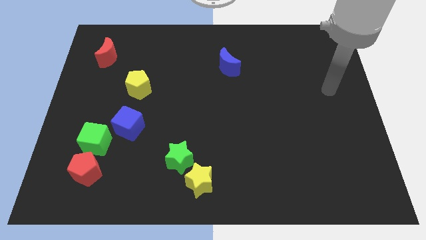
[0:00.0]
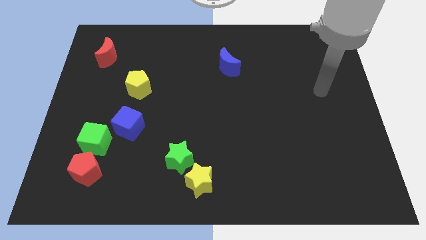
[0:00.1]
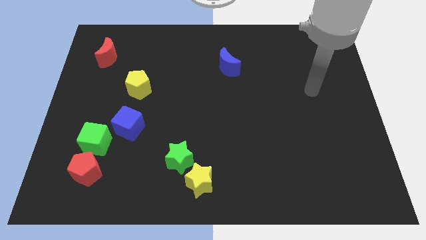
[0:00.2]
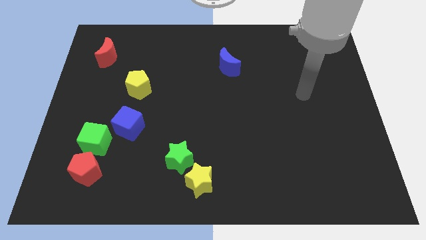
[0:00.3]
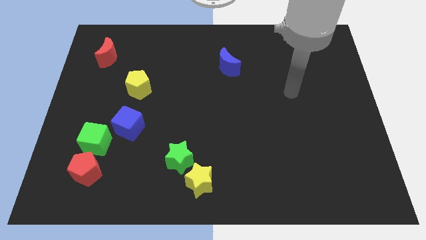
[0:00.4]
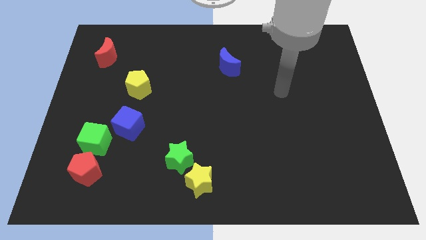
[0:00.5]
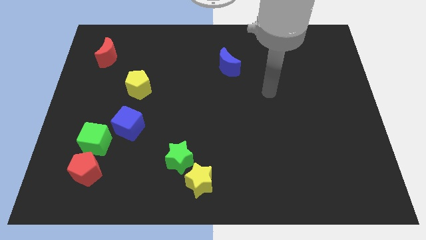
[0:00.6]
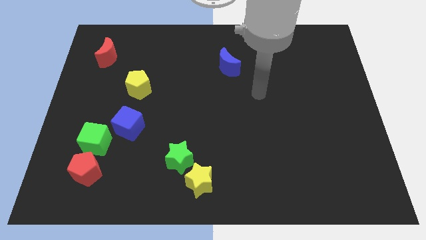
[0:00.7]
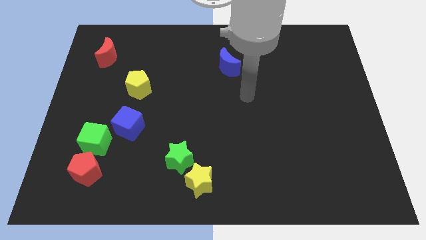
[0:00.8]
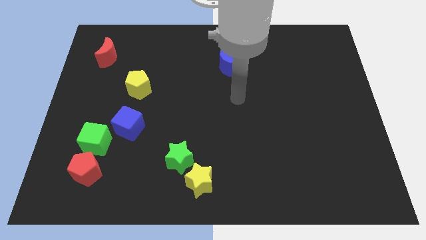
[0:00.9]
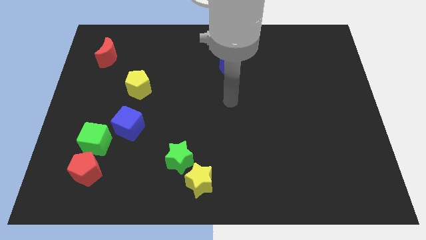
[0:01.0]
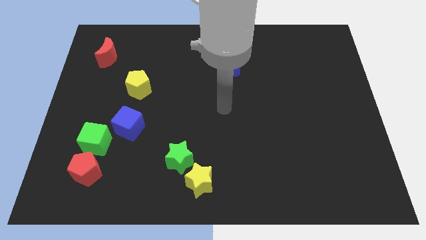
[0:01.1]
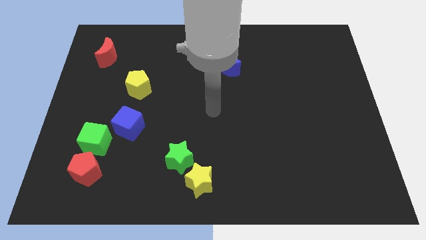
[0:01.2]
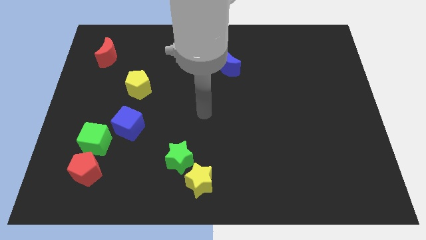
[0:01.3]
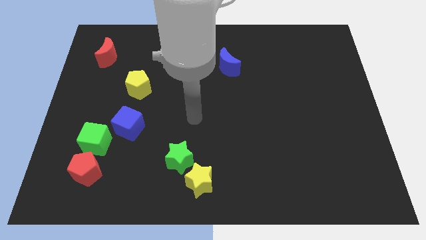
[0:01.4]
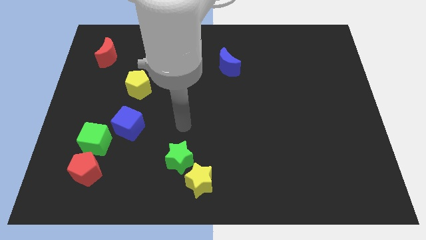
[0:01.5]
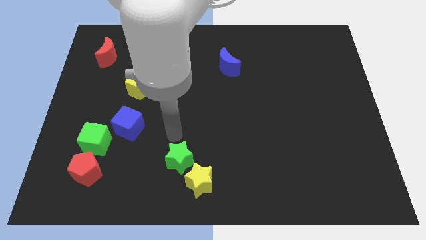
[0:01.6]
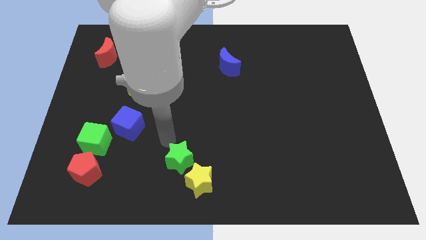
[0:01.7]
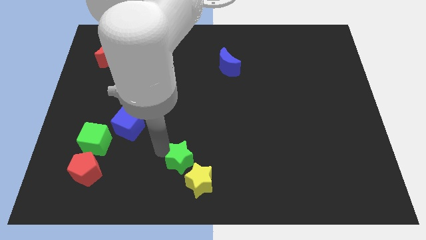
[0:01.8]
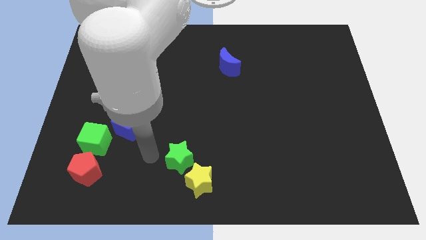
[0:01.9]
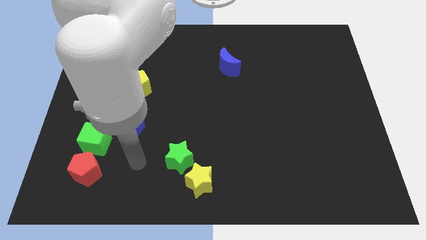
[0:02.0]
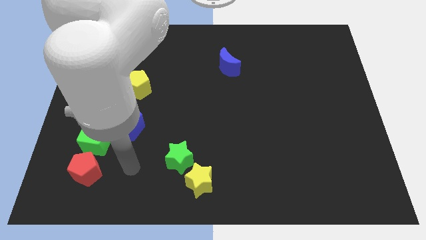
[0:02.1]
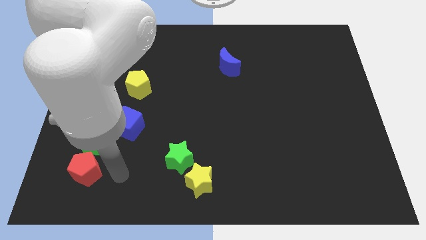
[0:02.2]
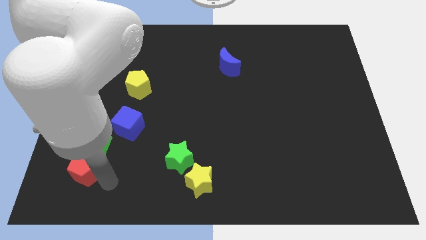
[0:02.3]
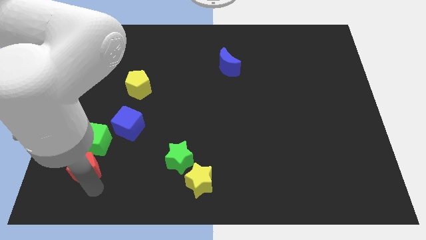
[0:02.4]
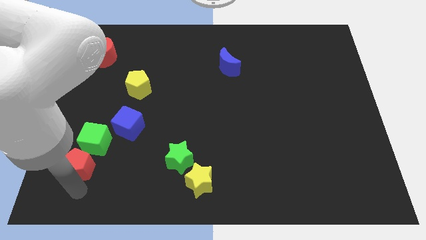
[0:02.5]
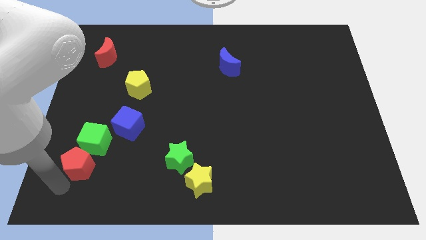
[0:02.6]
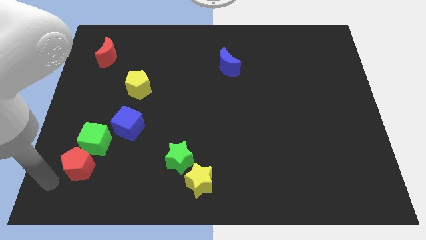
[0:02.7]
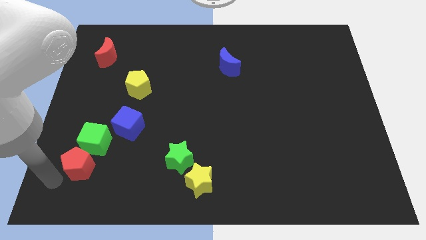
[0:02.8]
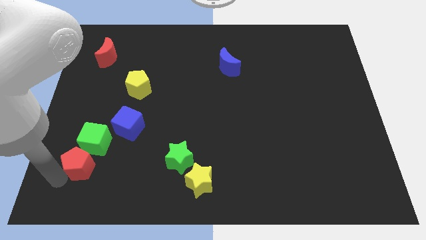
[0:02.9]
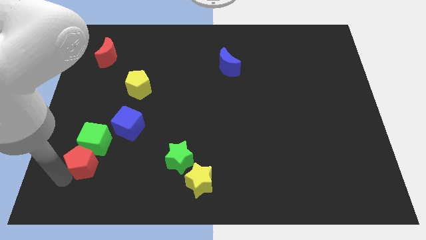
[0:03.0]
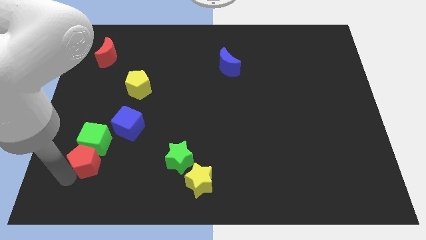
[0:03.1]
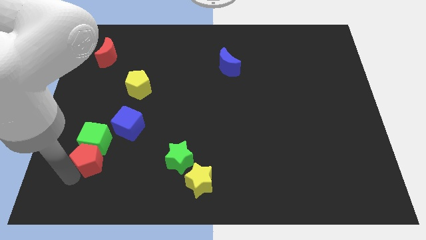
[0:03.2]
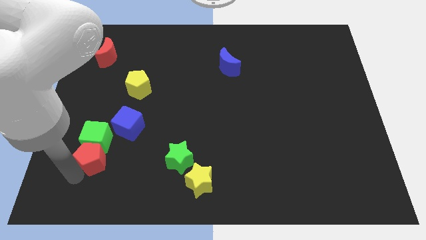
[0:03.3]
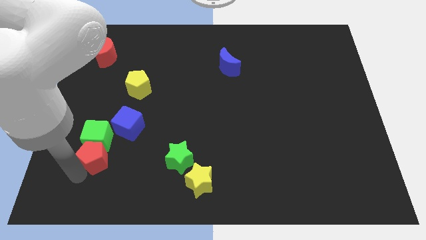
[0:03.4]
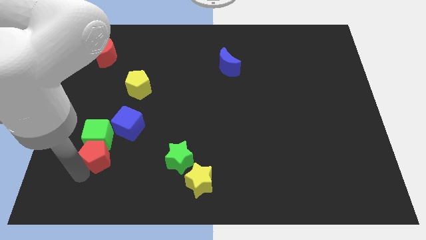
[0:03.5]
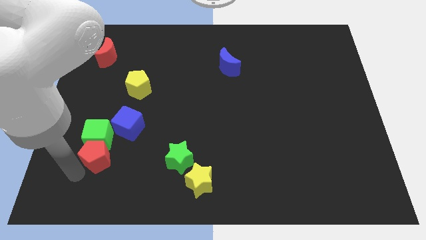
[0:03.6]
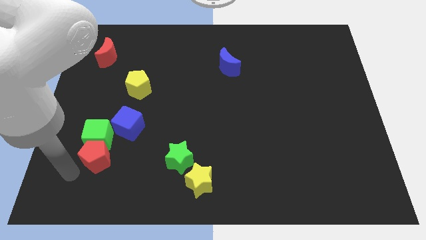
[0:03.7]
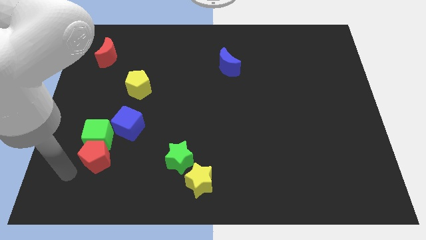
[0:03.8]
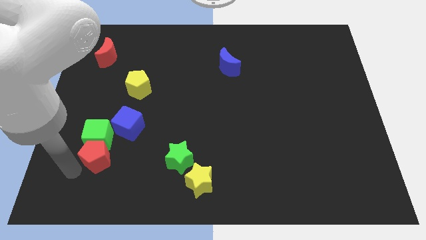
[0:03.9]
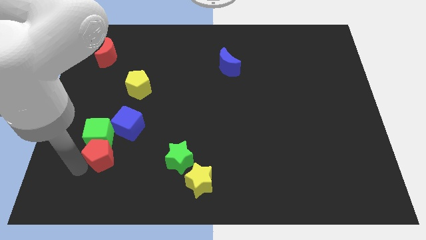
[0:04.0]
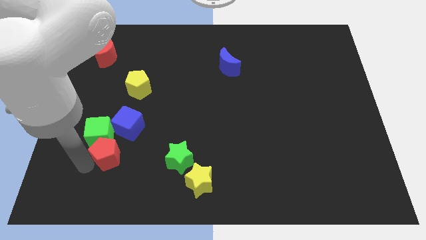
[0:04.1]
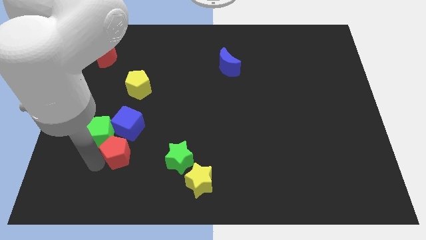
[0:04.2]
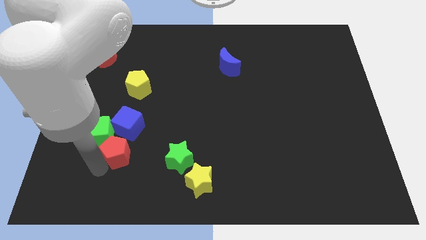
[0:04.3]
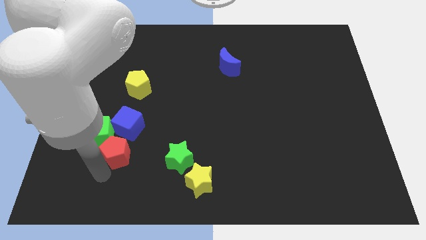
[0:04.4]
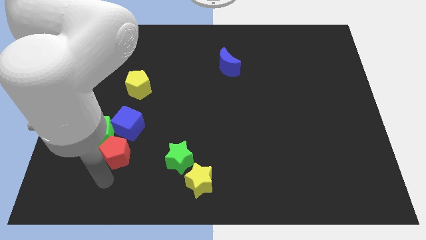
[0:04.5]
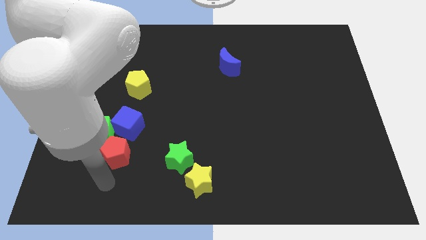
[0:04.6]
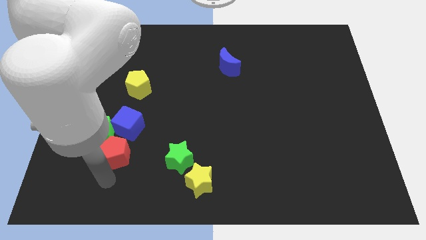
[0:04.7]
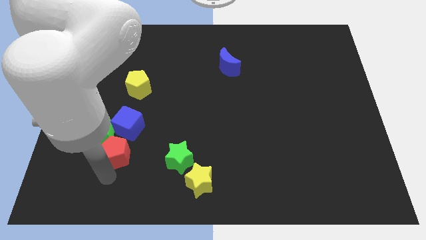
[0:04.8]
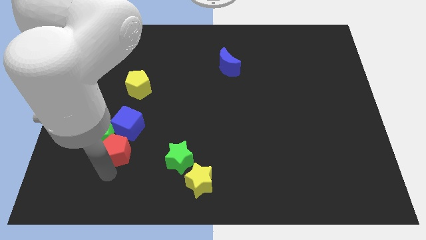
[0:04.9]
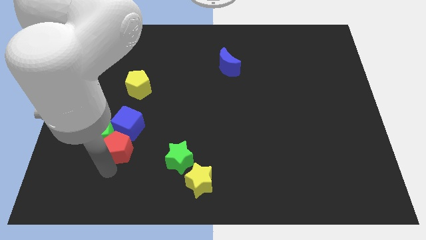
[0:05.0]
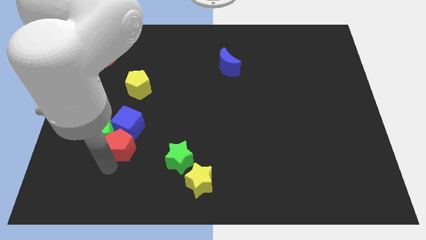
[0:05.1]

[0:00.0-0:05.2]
move the red pentagon close to the blue cube

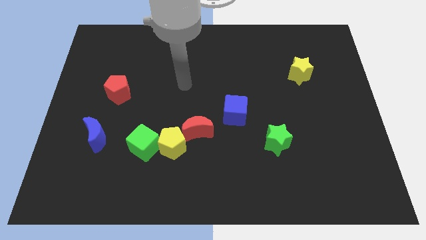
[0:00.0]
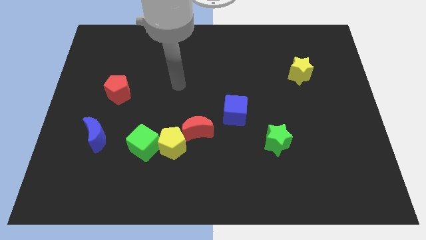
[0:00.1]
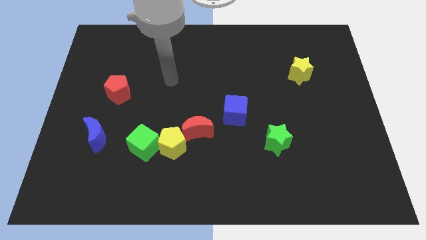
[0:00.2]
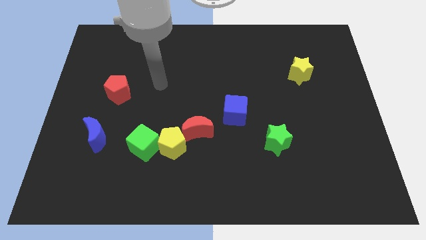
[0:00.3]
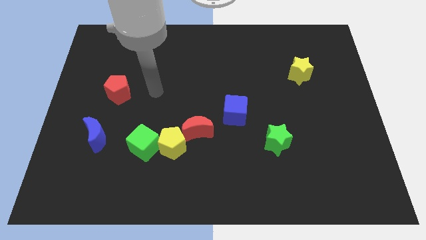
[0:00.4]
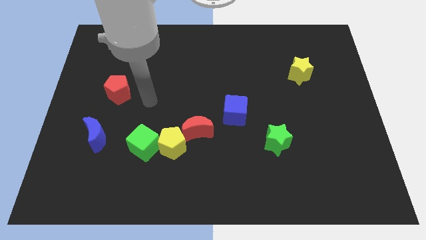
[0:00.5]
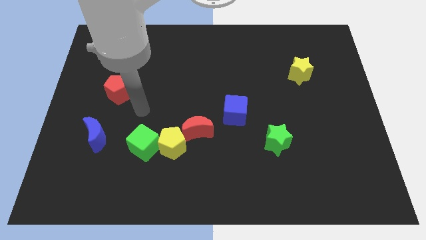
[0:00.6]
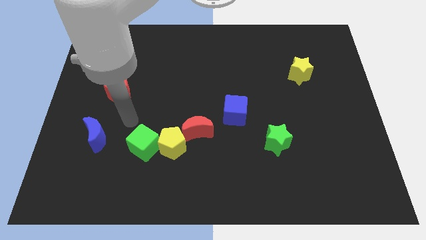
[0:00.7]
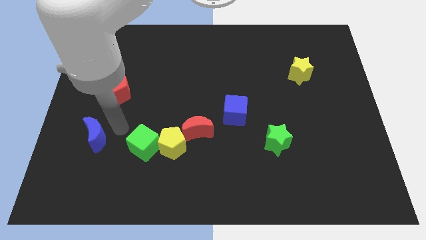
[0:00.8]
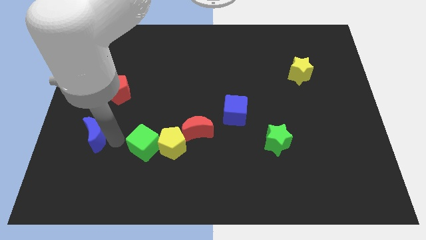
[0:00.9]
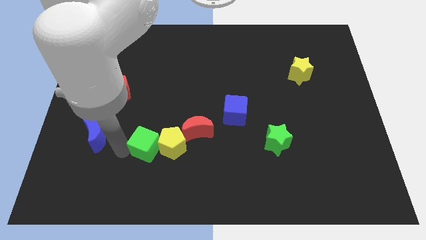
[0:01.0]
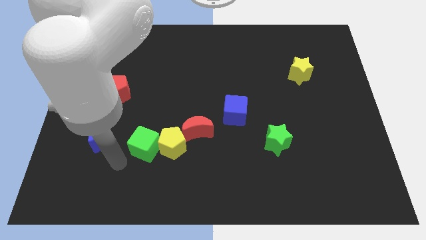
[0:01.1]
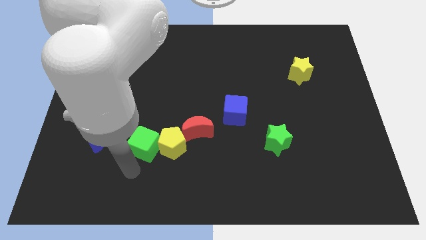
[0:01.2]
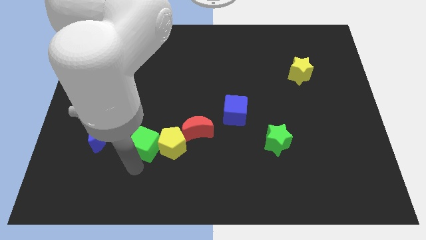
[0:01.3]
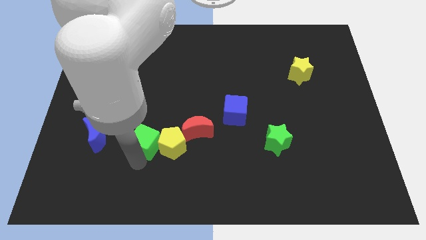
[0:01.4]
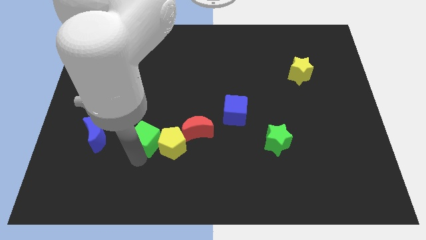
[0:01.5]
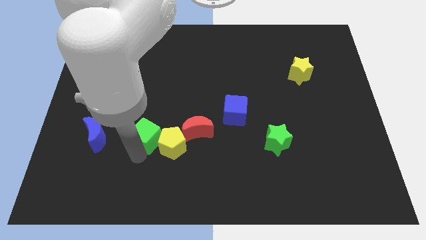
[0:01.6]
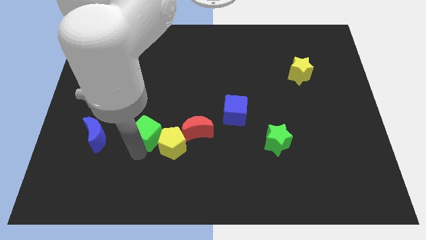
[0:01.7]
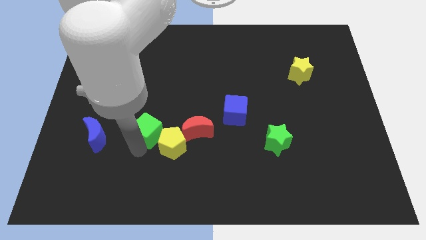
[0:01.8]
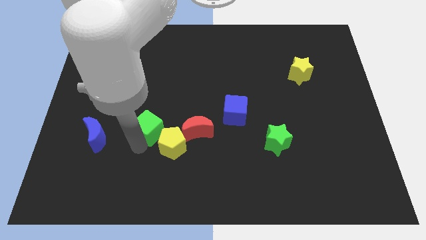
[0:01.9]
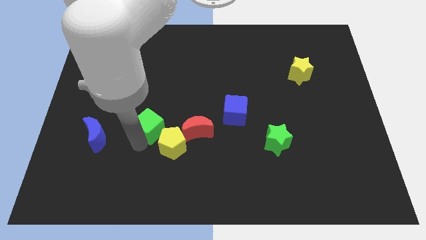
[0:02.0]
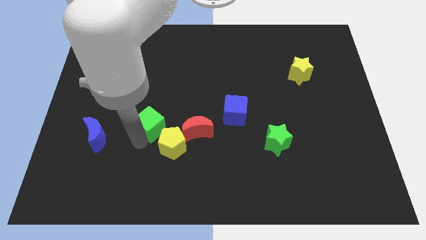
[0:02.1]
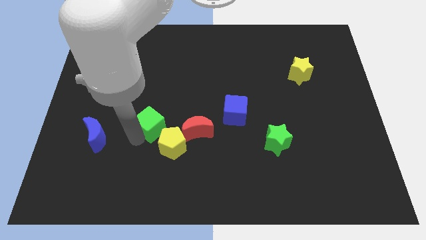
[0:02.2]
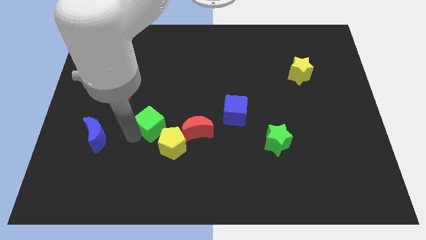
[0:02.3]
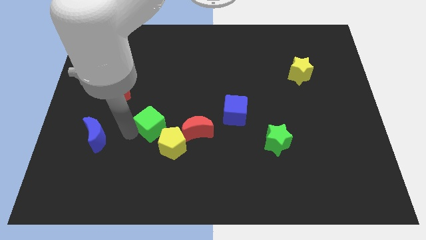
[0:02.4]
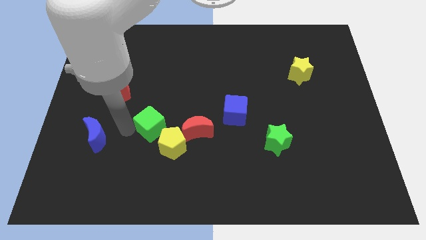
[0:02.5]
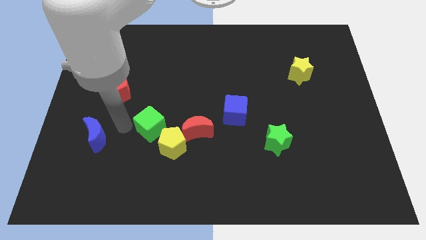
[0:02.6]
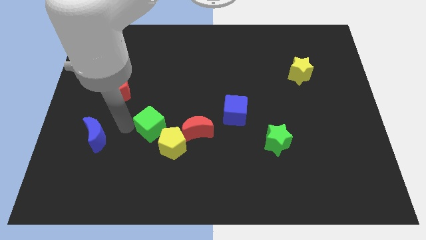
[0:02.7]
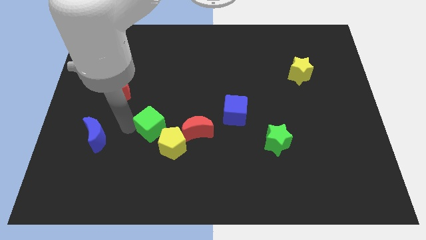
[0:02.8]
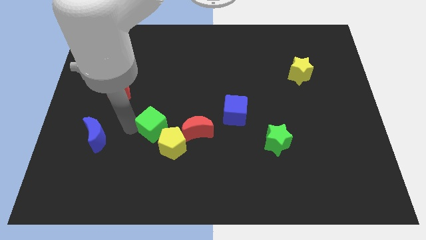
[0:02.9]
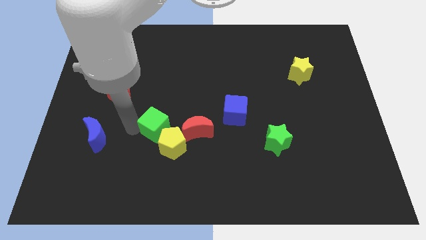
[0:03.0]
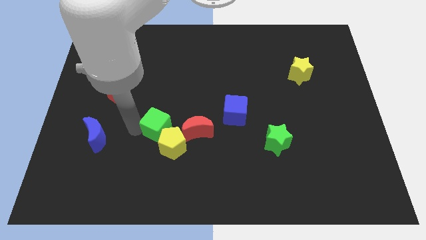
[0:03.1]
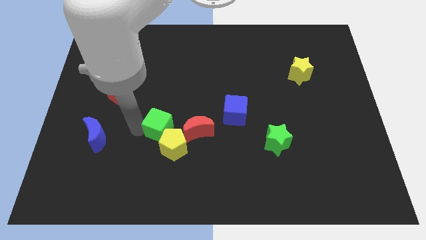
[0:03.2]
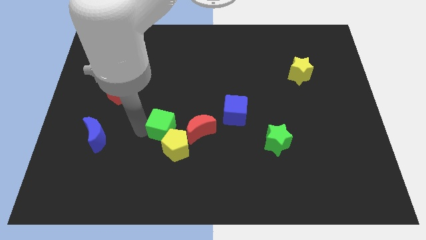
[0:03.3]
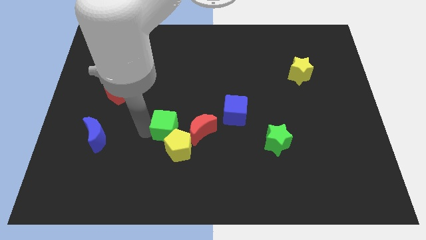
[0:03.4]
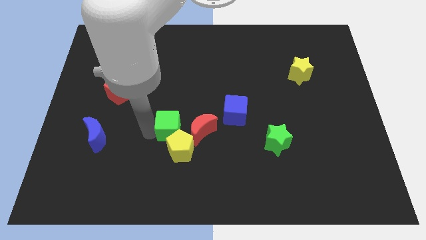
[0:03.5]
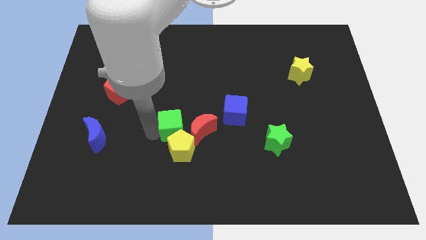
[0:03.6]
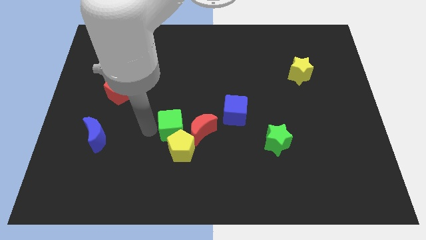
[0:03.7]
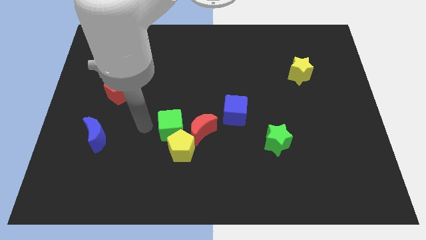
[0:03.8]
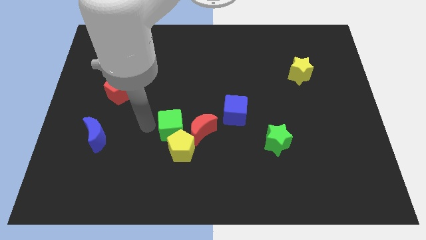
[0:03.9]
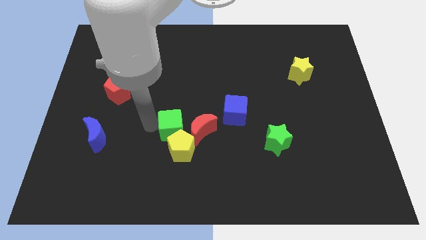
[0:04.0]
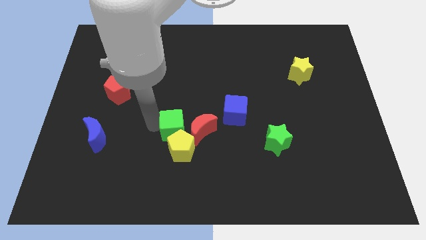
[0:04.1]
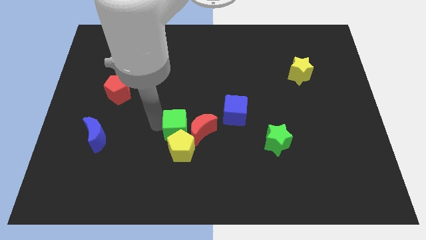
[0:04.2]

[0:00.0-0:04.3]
put the green cube close to the red moon
